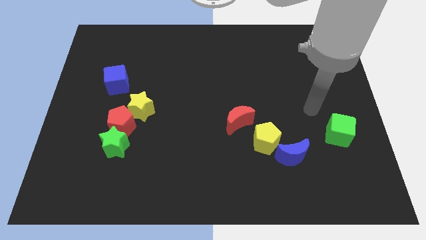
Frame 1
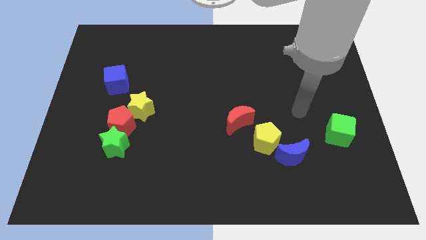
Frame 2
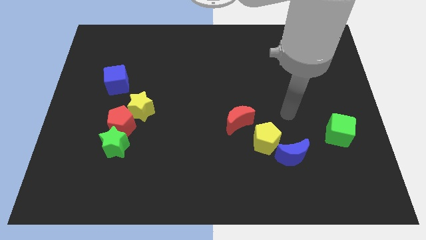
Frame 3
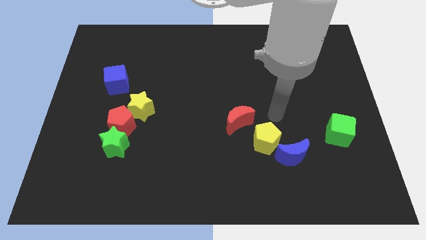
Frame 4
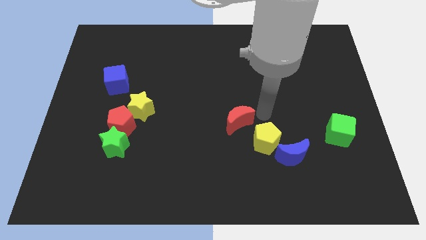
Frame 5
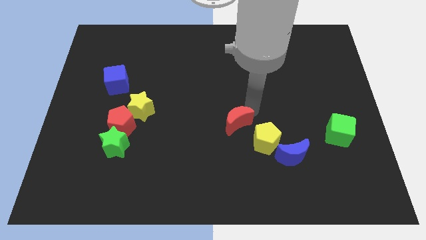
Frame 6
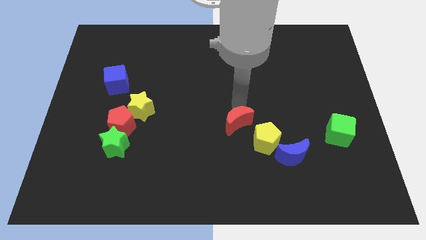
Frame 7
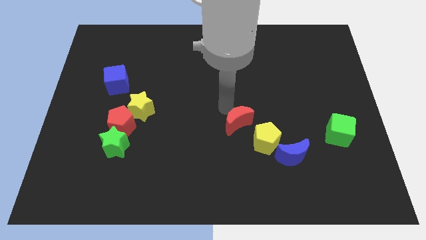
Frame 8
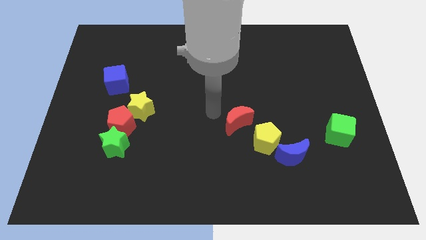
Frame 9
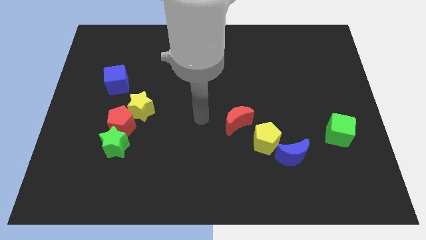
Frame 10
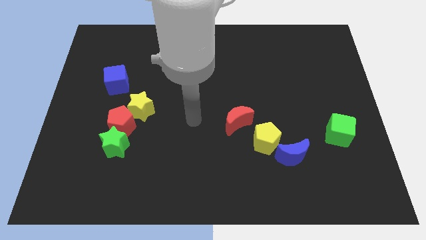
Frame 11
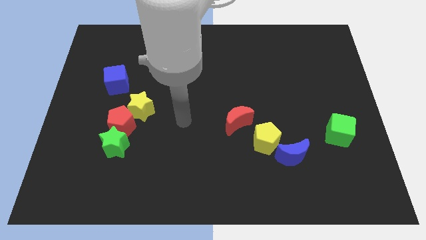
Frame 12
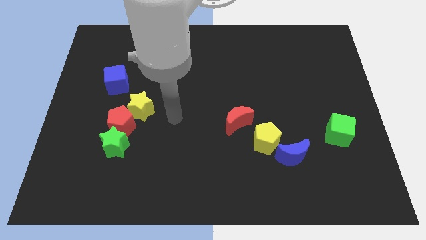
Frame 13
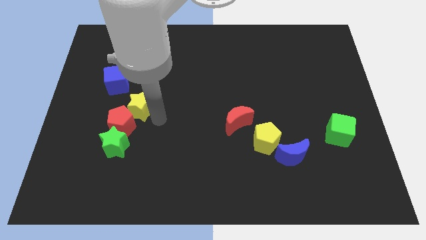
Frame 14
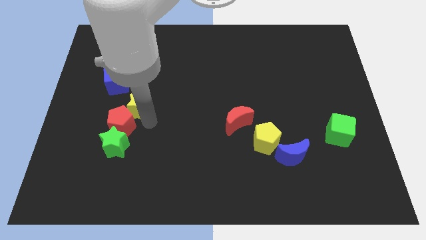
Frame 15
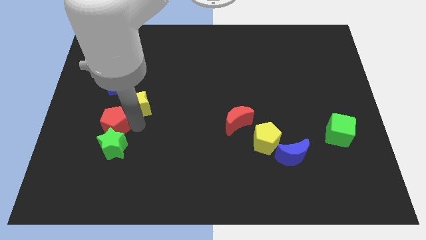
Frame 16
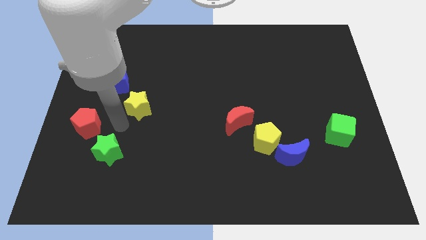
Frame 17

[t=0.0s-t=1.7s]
separate the yellow star from the red pentagon

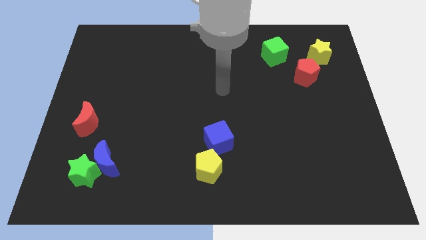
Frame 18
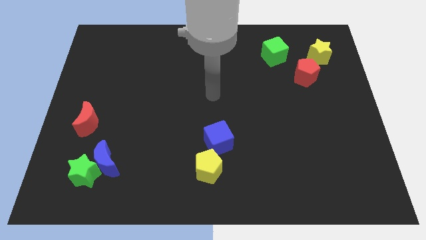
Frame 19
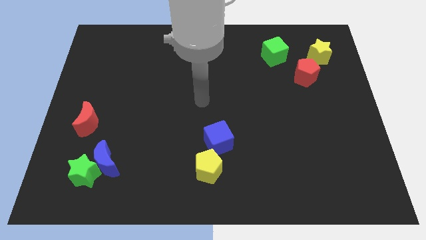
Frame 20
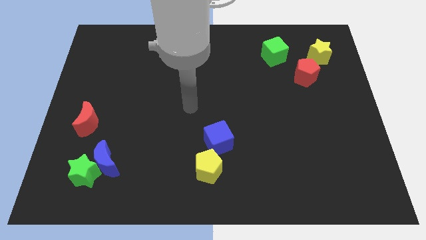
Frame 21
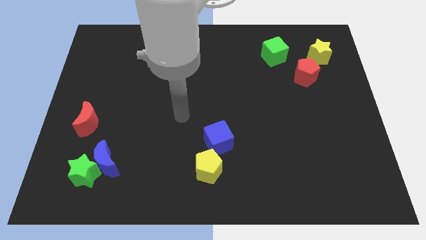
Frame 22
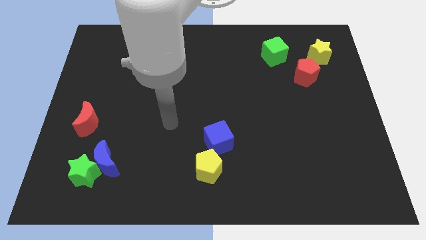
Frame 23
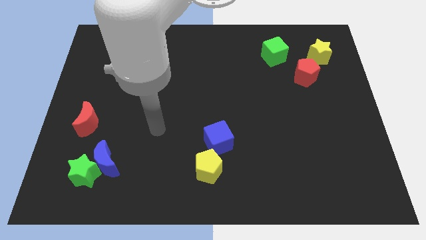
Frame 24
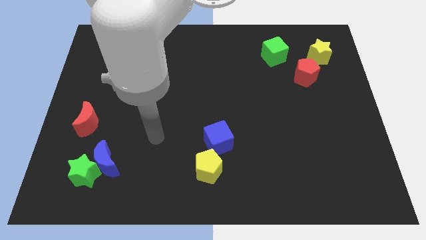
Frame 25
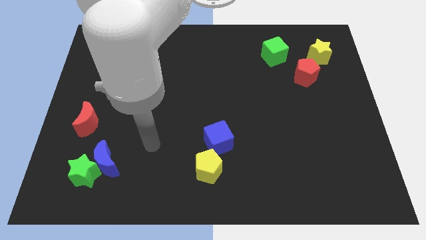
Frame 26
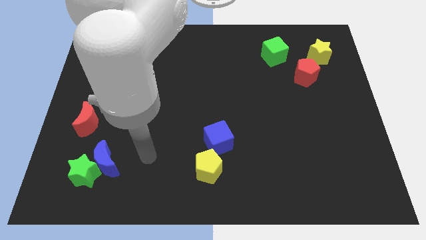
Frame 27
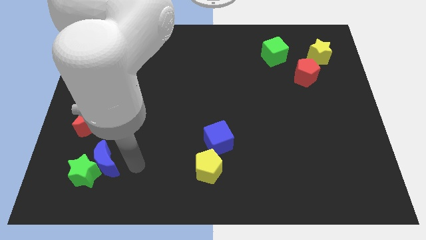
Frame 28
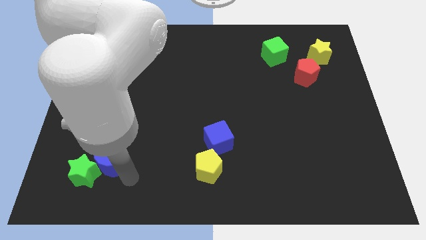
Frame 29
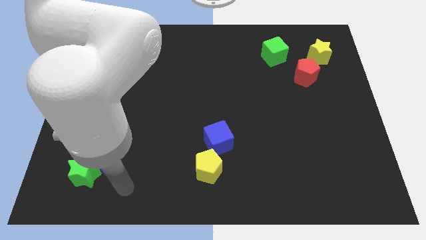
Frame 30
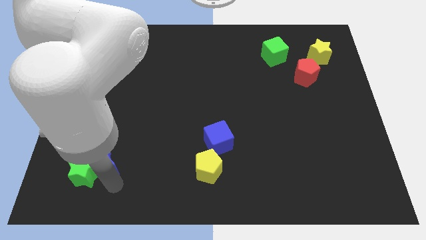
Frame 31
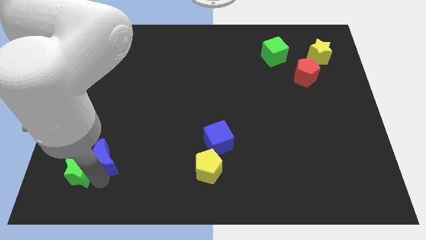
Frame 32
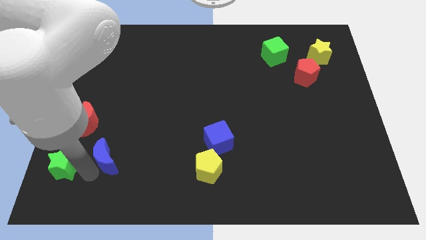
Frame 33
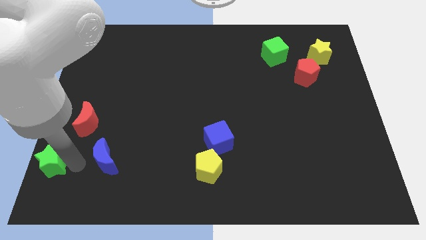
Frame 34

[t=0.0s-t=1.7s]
move the blue moon away from the green star

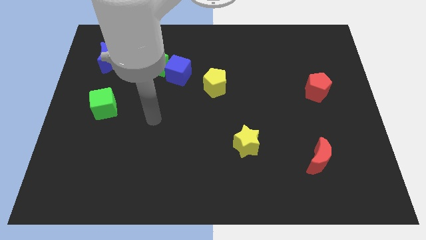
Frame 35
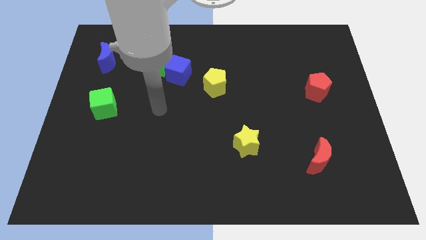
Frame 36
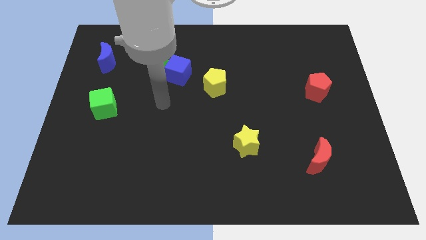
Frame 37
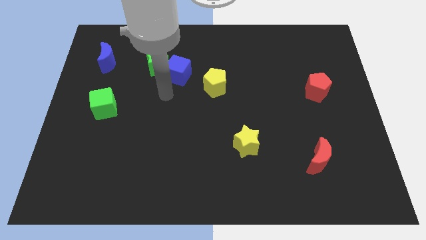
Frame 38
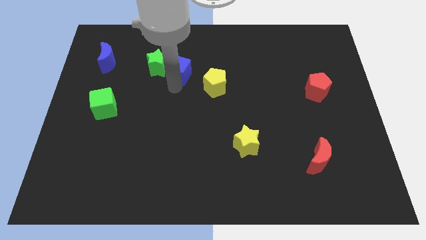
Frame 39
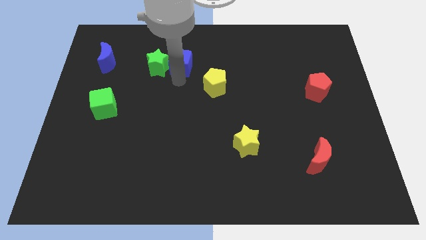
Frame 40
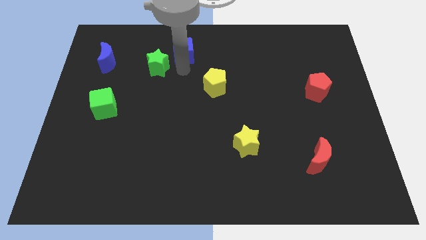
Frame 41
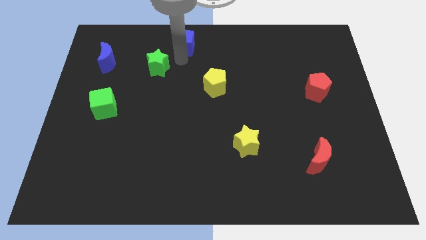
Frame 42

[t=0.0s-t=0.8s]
separate the green star from the blue cube

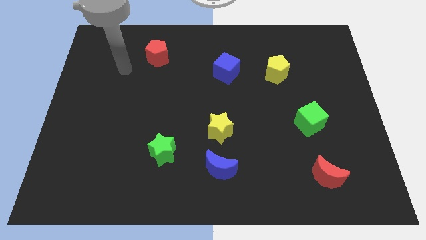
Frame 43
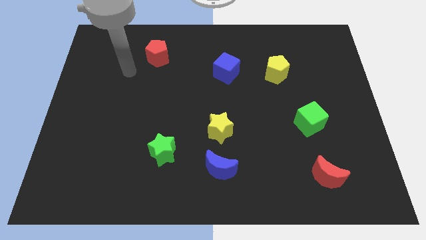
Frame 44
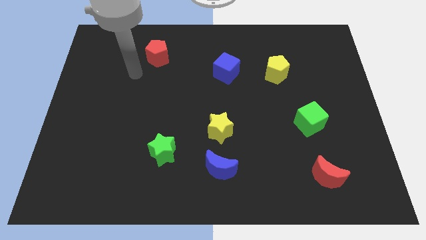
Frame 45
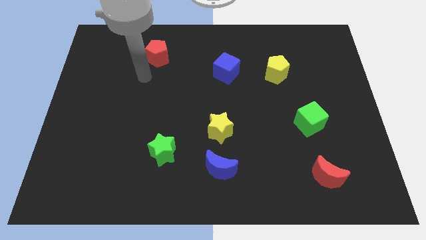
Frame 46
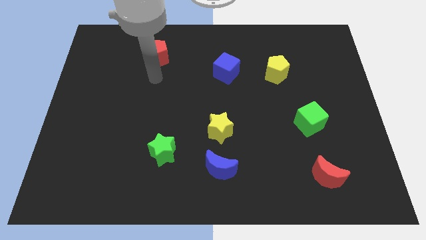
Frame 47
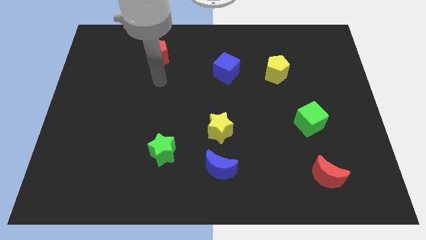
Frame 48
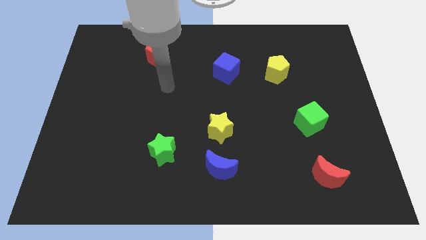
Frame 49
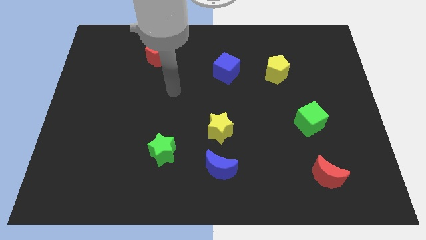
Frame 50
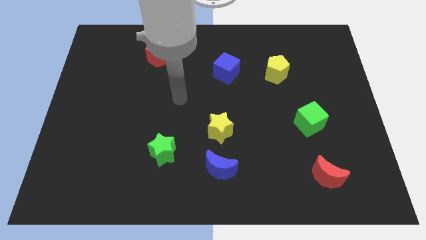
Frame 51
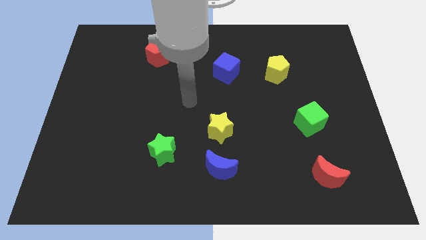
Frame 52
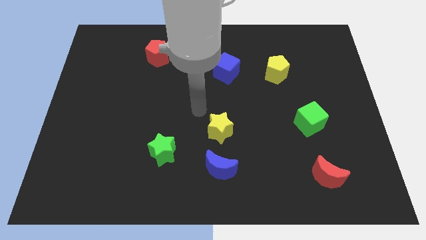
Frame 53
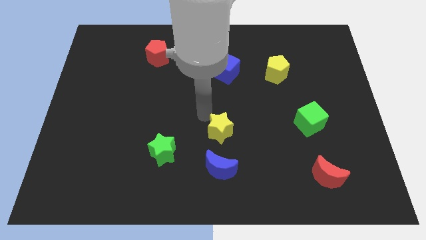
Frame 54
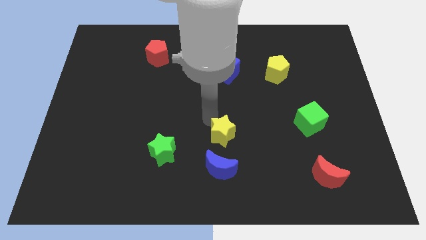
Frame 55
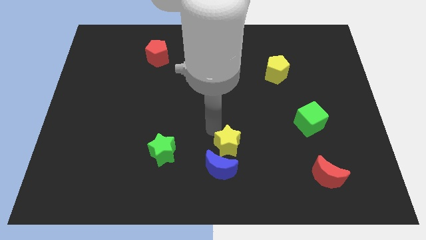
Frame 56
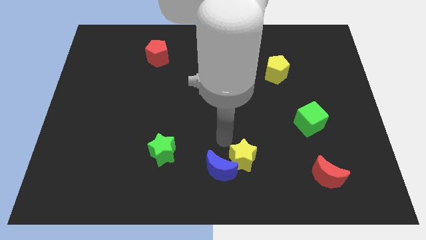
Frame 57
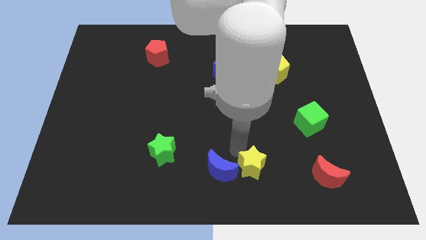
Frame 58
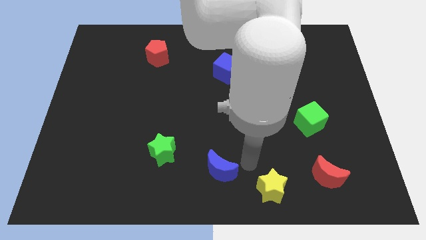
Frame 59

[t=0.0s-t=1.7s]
pull the blue moon apart from the yellow star

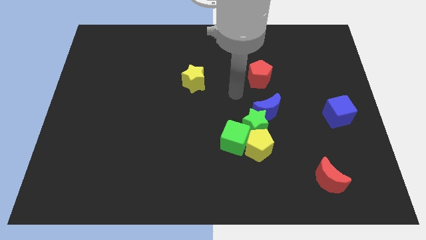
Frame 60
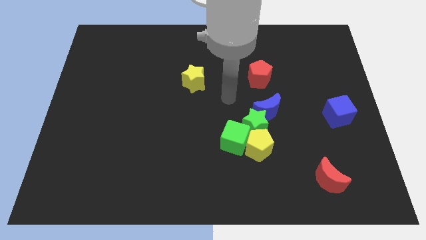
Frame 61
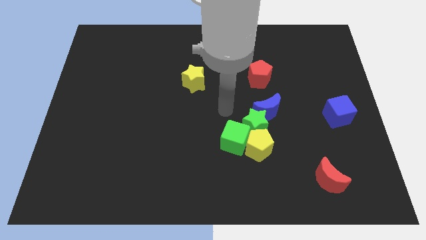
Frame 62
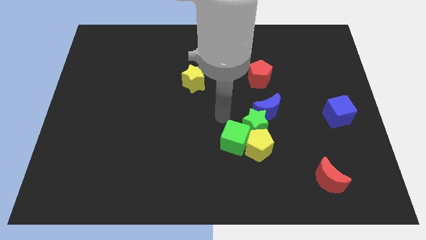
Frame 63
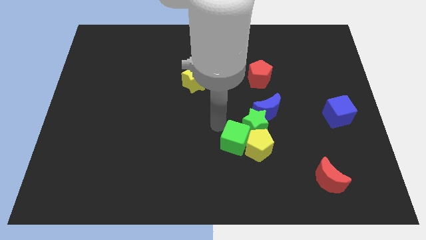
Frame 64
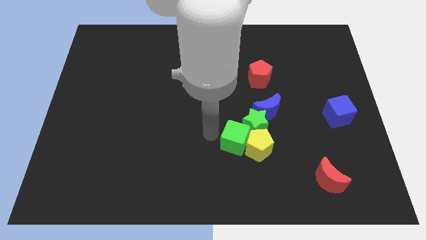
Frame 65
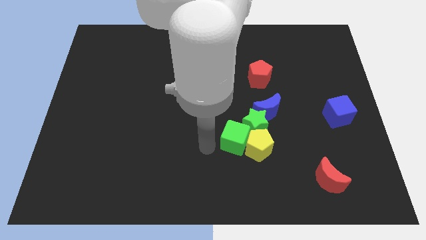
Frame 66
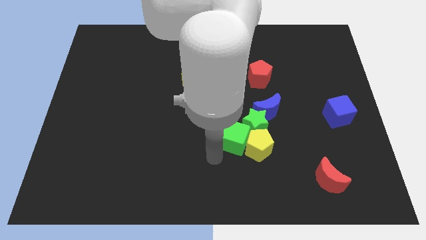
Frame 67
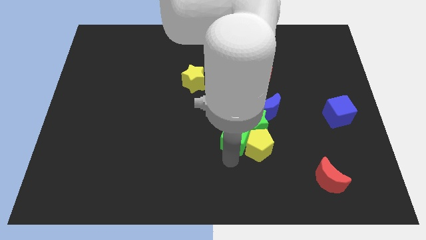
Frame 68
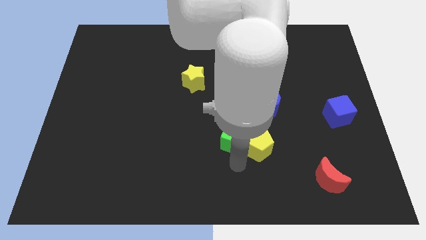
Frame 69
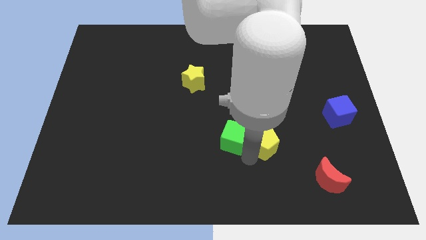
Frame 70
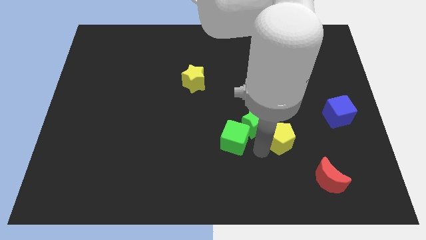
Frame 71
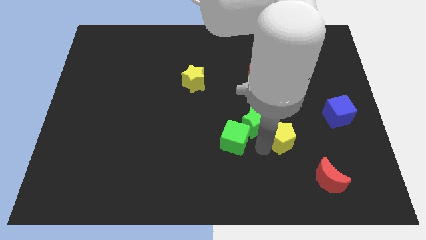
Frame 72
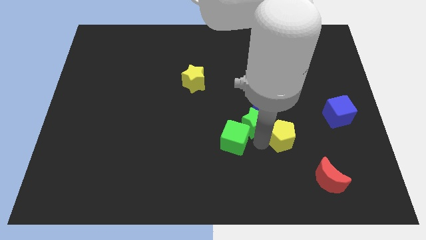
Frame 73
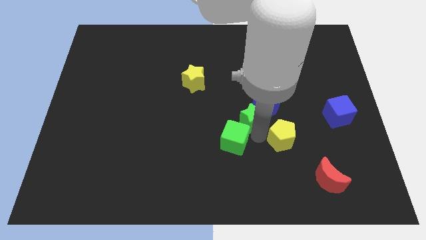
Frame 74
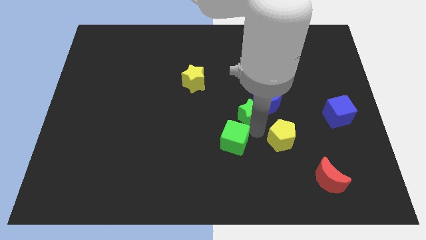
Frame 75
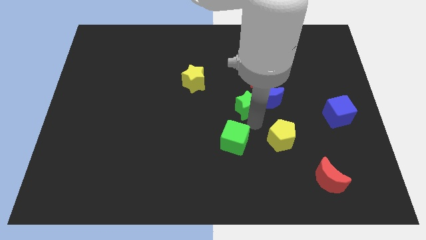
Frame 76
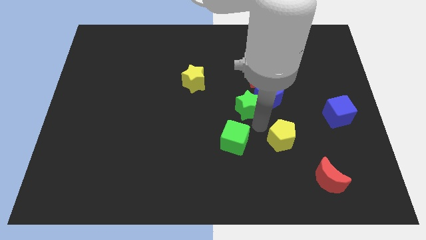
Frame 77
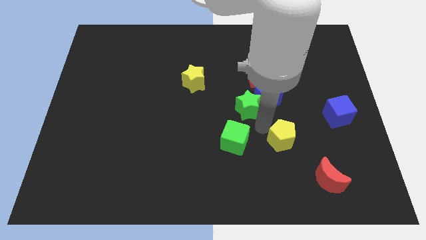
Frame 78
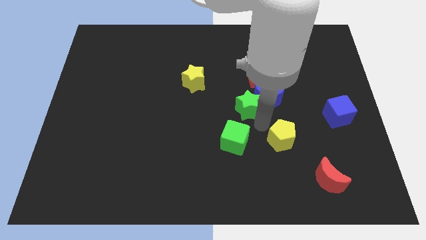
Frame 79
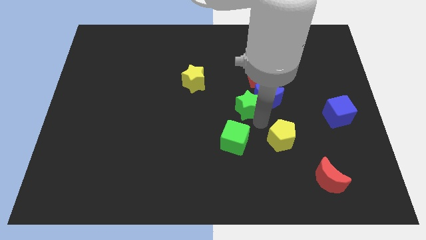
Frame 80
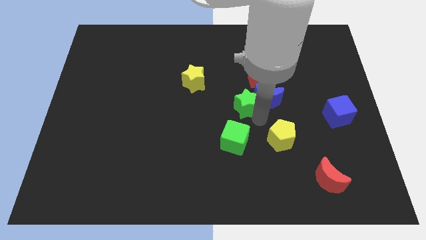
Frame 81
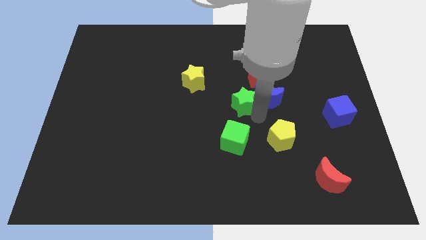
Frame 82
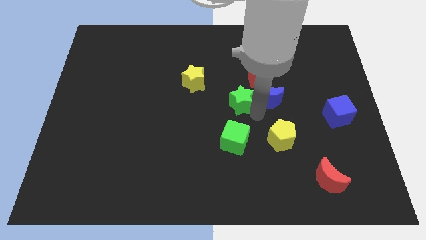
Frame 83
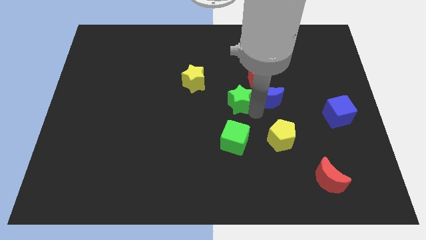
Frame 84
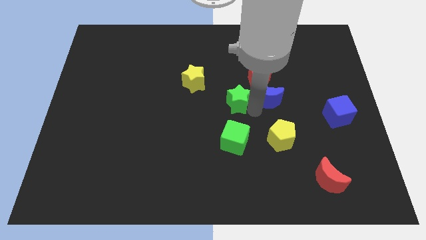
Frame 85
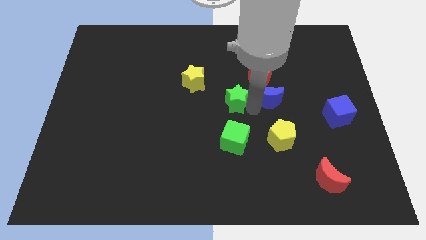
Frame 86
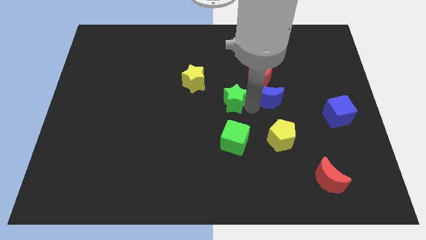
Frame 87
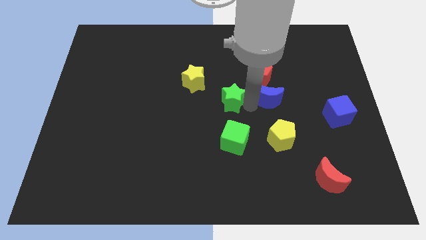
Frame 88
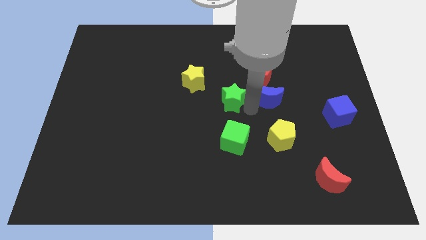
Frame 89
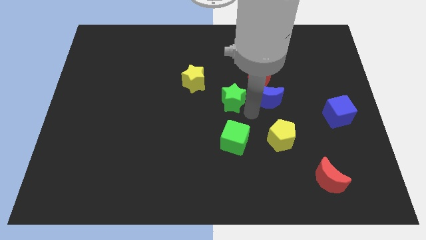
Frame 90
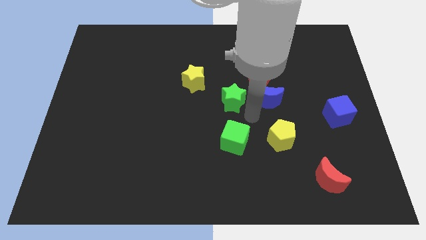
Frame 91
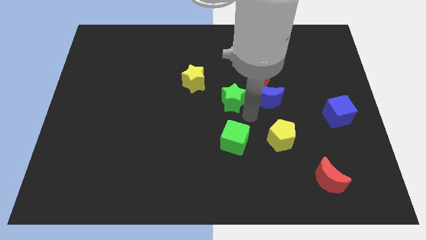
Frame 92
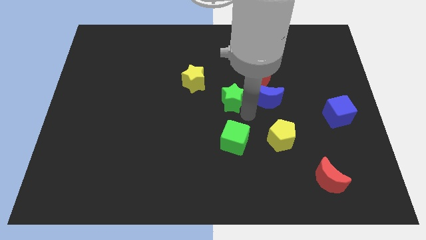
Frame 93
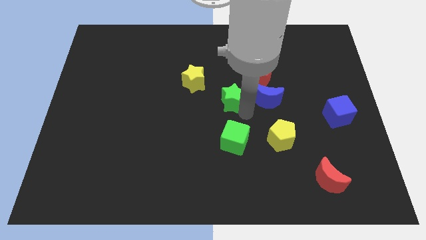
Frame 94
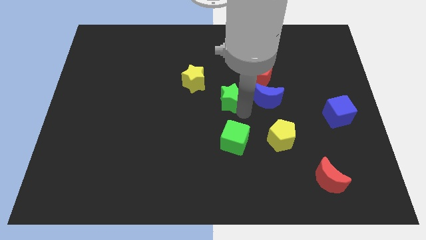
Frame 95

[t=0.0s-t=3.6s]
move the green star away from the blue moon, yellow pentagon, and green cube
